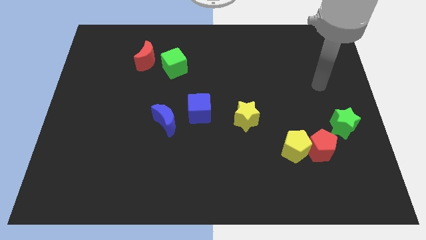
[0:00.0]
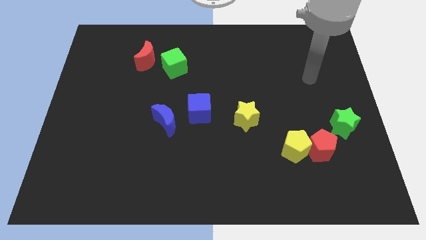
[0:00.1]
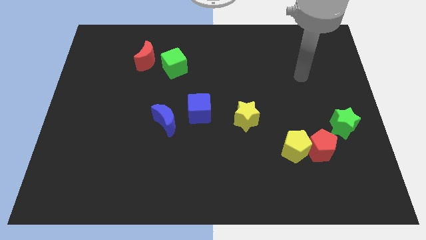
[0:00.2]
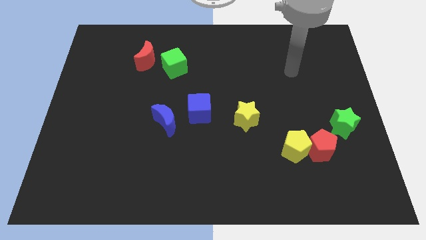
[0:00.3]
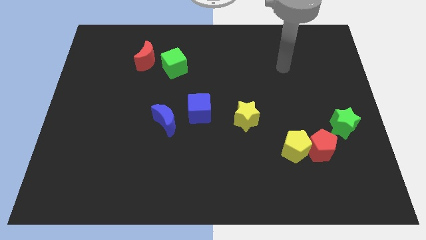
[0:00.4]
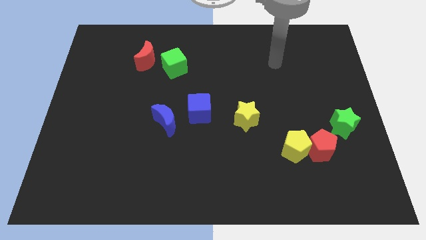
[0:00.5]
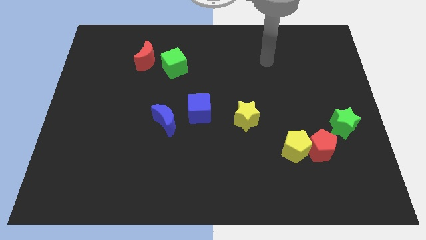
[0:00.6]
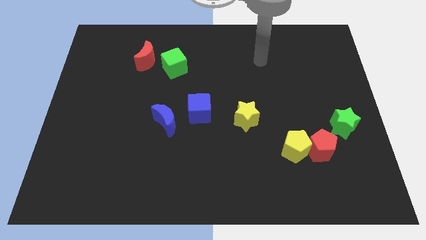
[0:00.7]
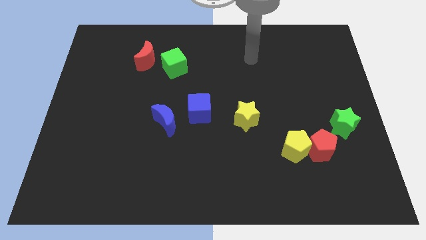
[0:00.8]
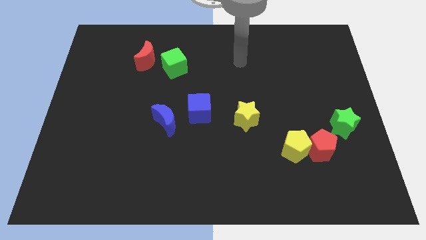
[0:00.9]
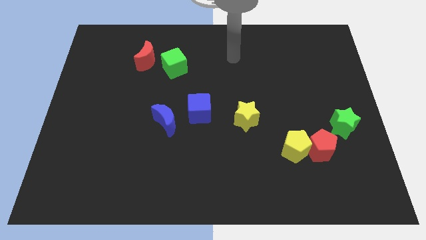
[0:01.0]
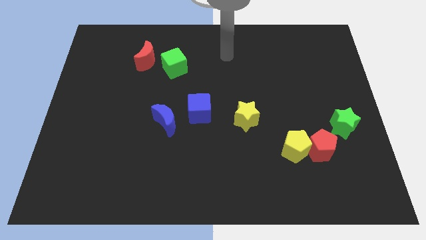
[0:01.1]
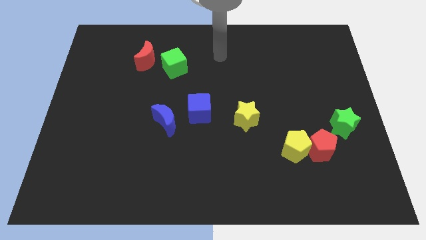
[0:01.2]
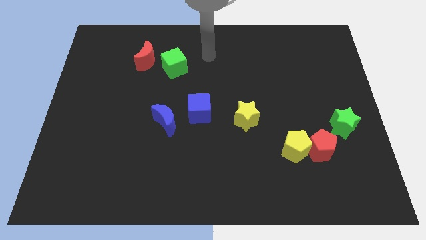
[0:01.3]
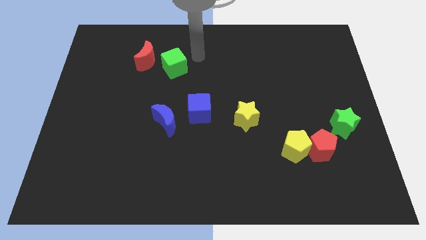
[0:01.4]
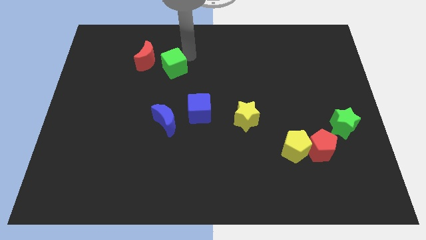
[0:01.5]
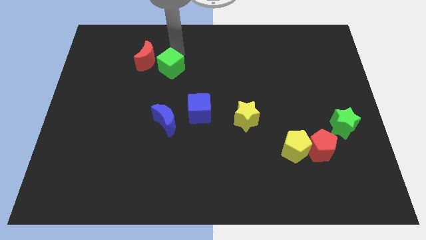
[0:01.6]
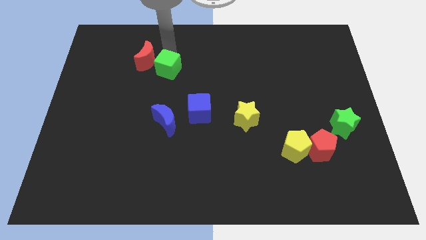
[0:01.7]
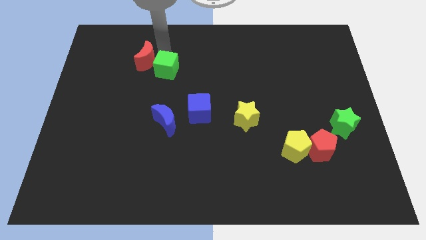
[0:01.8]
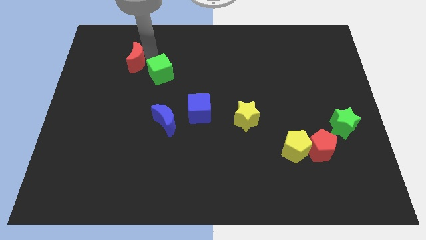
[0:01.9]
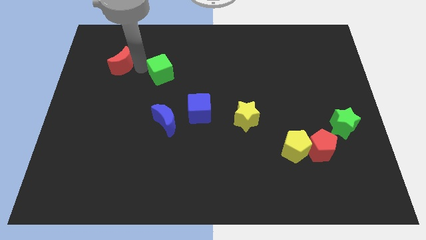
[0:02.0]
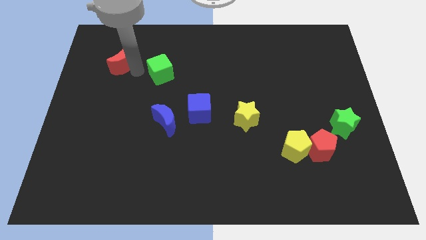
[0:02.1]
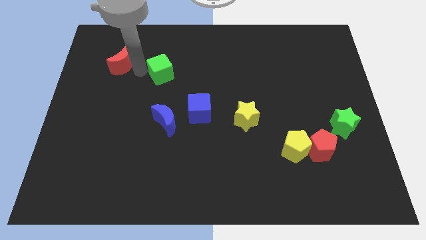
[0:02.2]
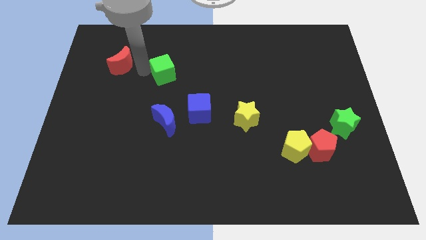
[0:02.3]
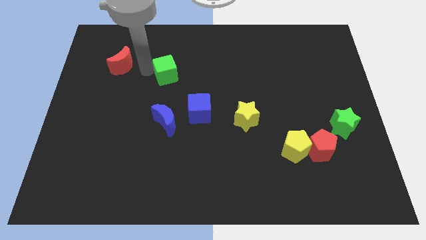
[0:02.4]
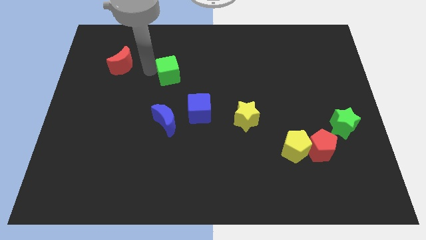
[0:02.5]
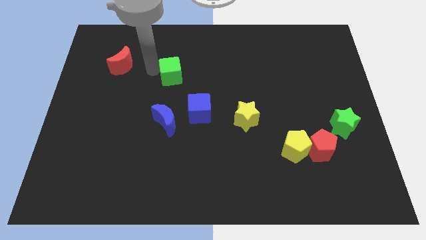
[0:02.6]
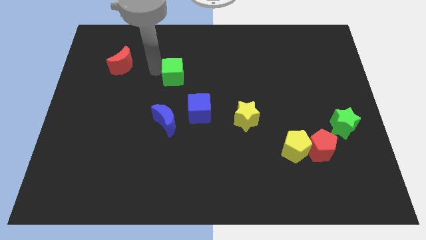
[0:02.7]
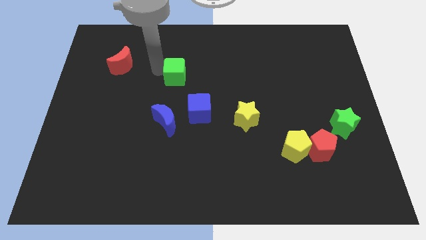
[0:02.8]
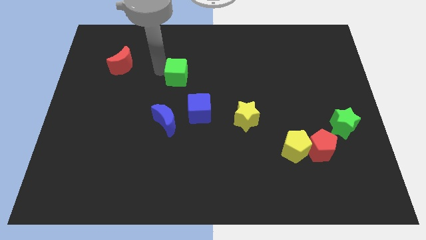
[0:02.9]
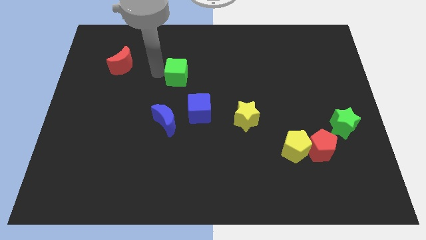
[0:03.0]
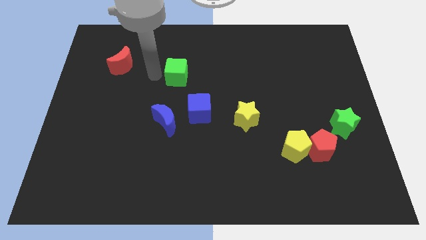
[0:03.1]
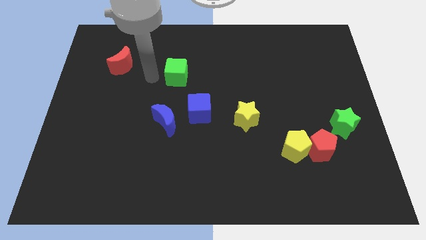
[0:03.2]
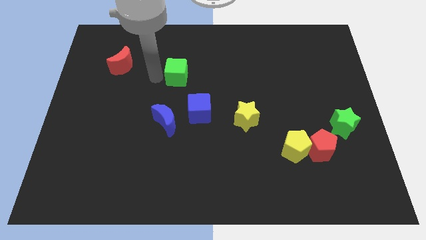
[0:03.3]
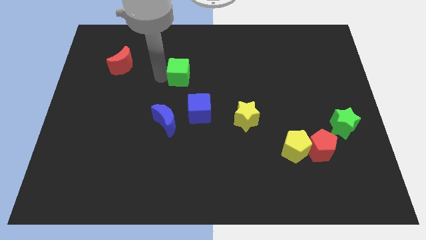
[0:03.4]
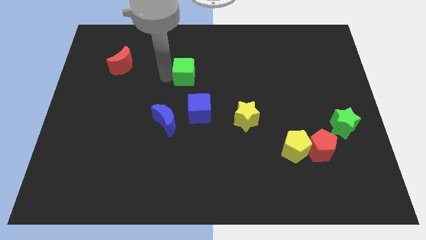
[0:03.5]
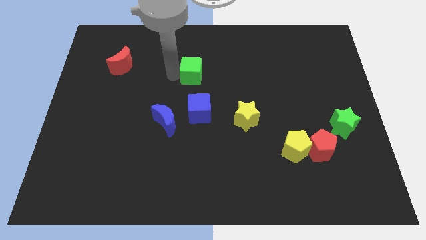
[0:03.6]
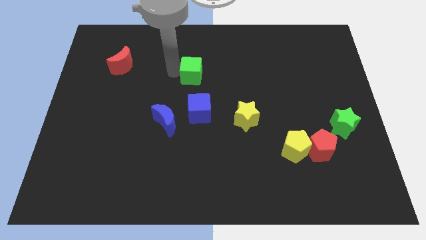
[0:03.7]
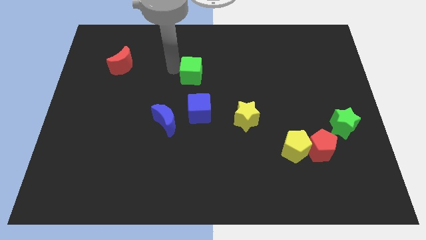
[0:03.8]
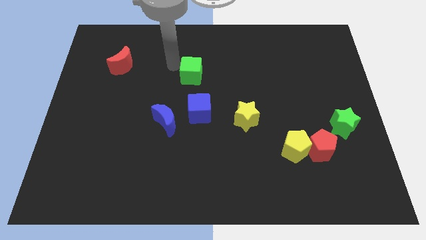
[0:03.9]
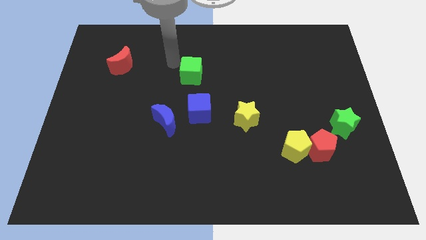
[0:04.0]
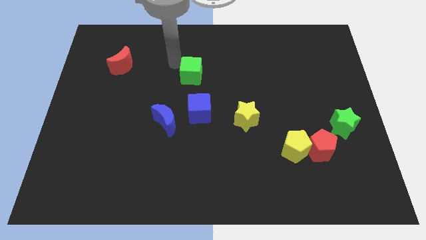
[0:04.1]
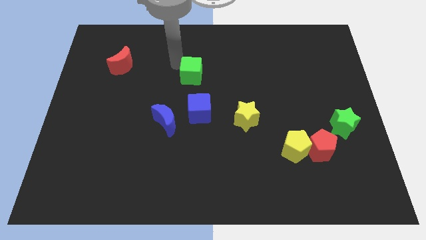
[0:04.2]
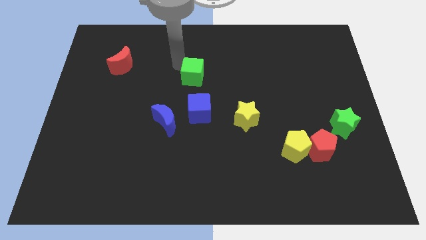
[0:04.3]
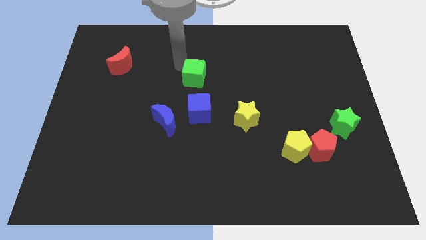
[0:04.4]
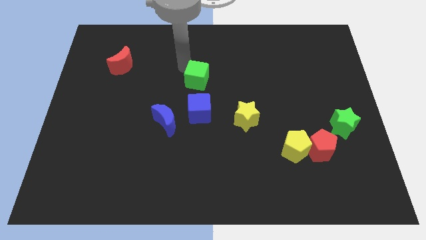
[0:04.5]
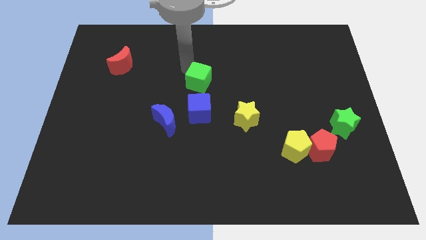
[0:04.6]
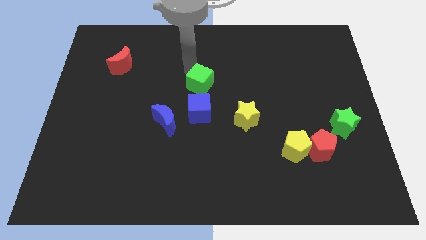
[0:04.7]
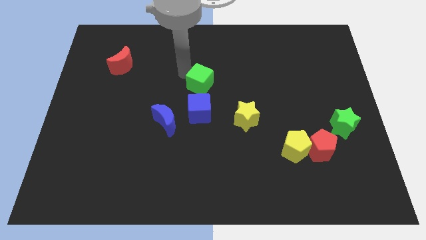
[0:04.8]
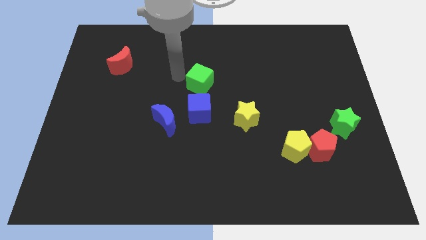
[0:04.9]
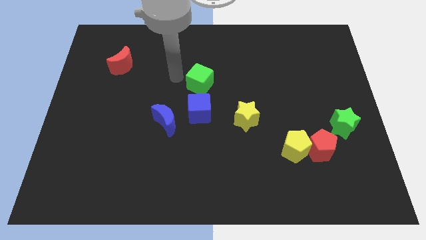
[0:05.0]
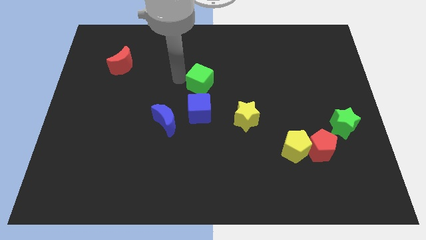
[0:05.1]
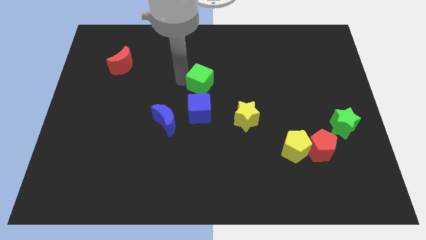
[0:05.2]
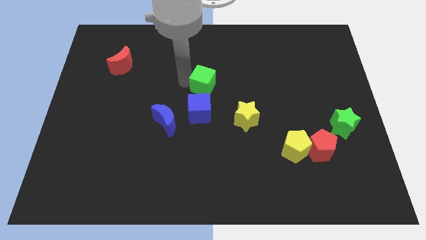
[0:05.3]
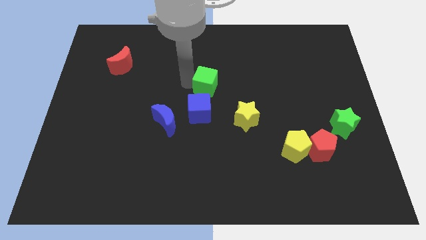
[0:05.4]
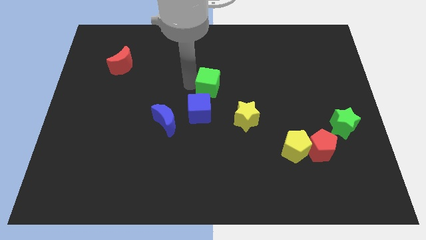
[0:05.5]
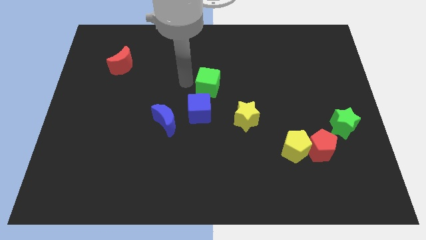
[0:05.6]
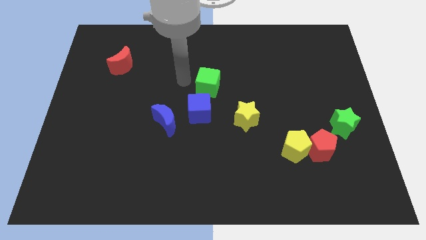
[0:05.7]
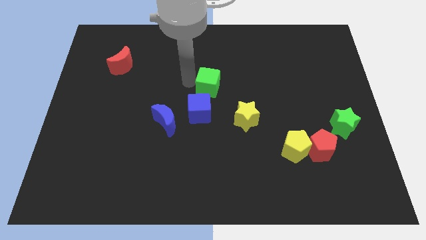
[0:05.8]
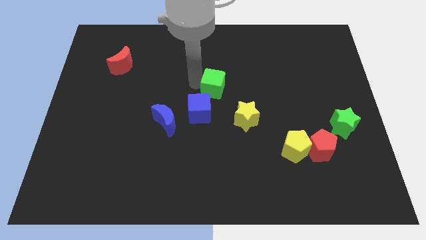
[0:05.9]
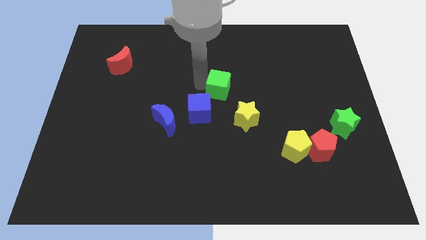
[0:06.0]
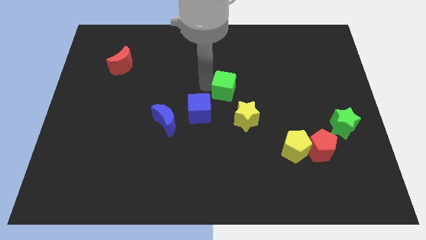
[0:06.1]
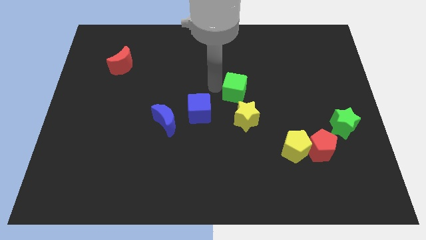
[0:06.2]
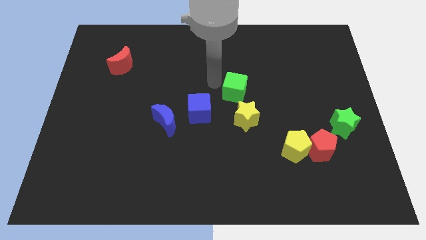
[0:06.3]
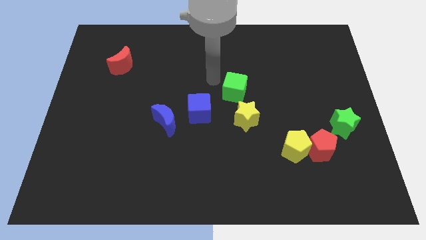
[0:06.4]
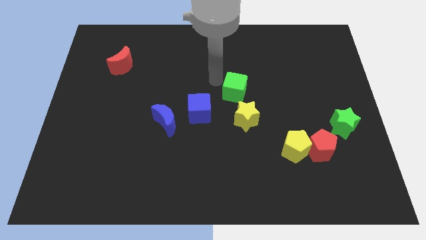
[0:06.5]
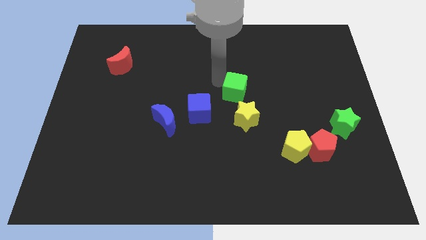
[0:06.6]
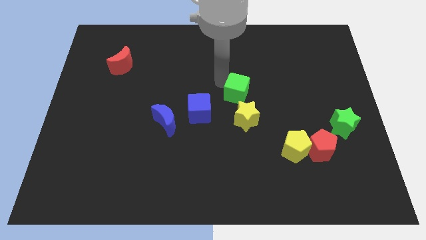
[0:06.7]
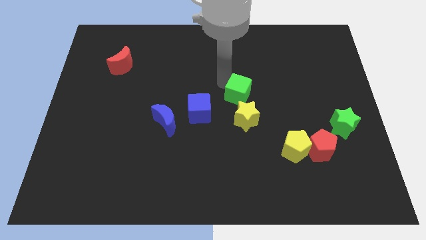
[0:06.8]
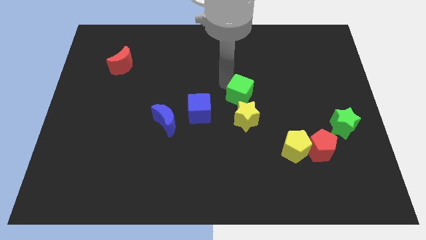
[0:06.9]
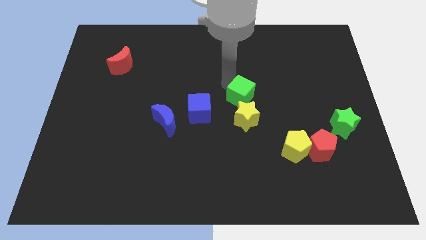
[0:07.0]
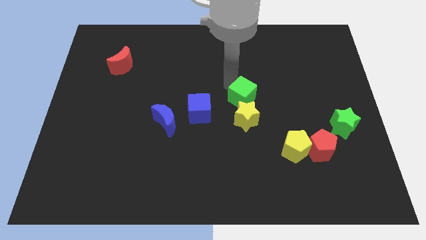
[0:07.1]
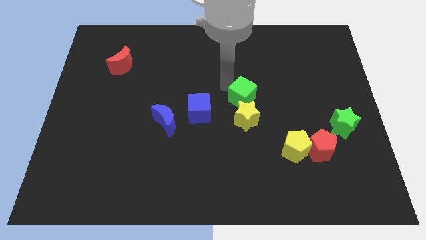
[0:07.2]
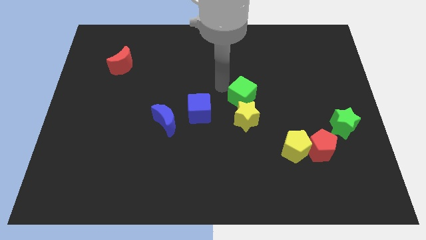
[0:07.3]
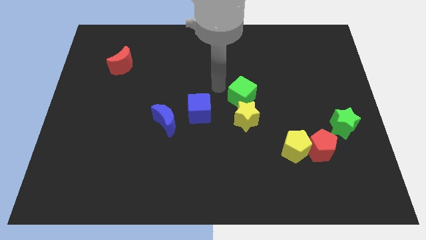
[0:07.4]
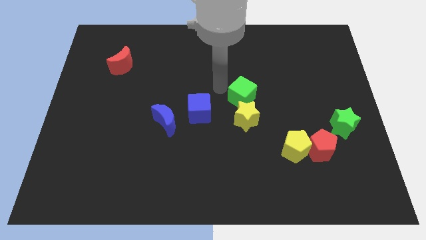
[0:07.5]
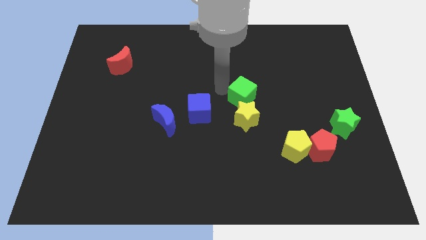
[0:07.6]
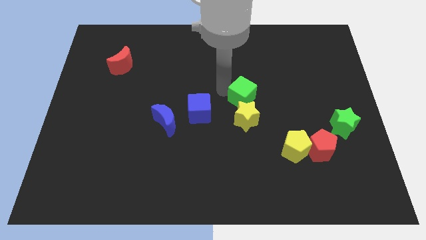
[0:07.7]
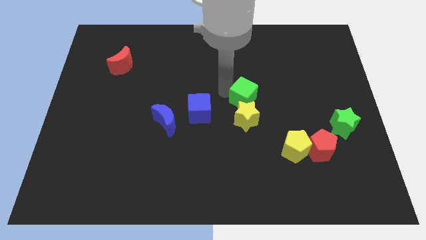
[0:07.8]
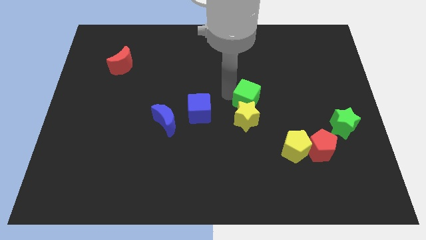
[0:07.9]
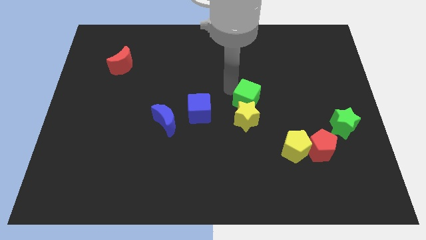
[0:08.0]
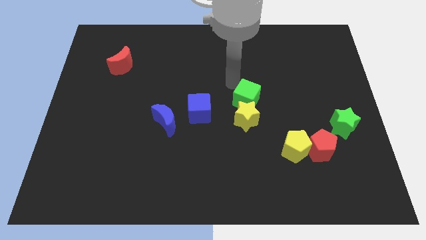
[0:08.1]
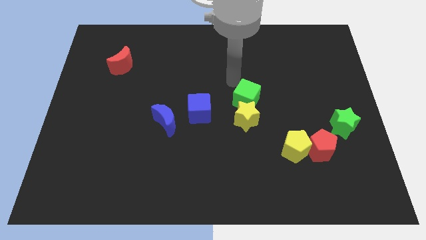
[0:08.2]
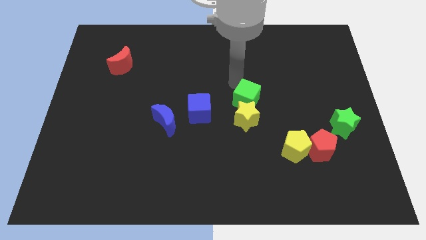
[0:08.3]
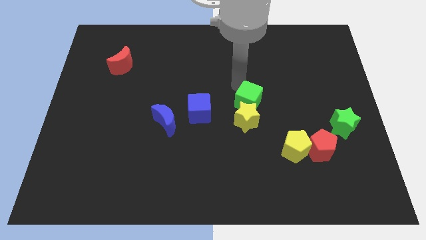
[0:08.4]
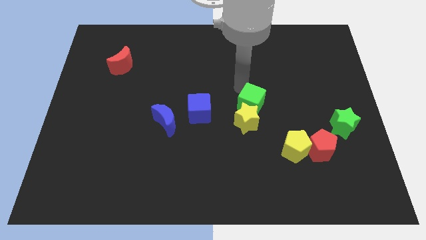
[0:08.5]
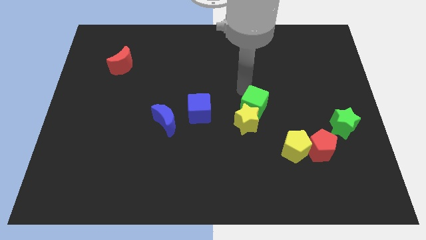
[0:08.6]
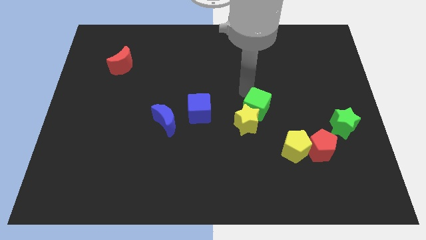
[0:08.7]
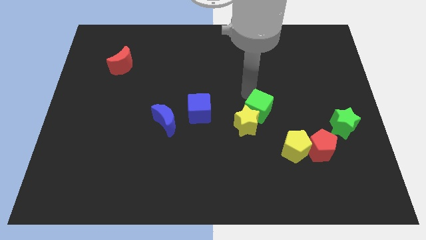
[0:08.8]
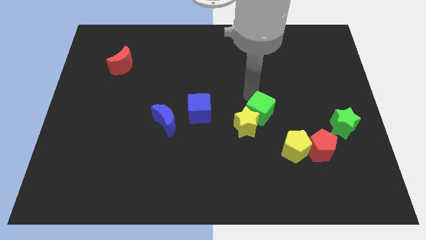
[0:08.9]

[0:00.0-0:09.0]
put the green cube diagonally up and to the left of the yellow pentagon
